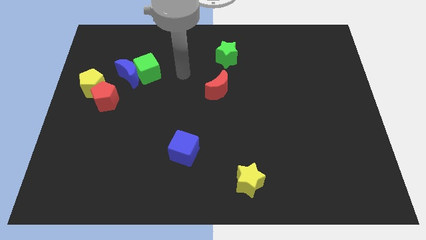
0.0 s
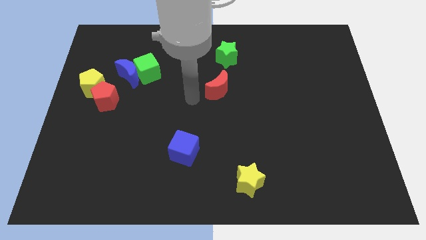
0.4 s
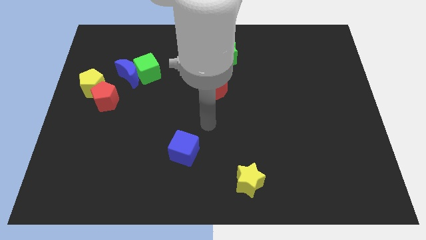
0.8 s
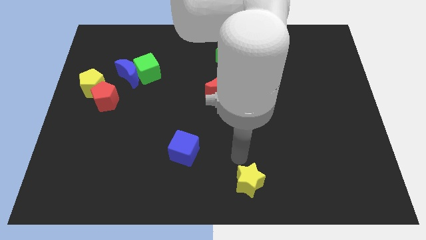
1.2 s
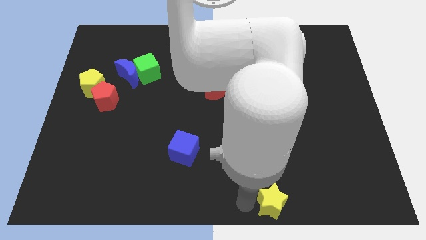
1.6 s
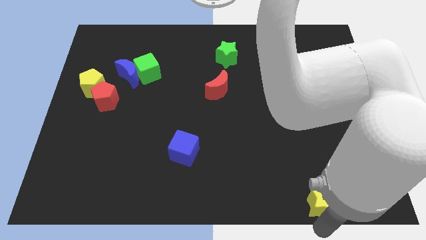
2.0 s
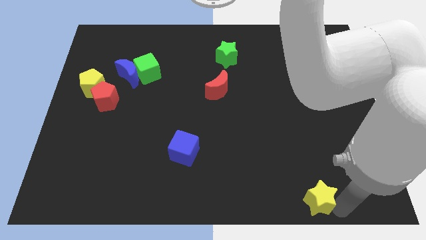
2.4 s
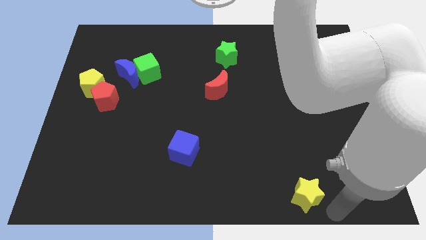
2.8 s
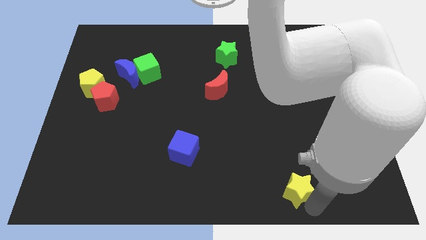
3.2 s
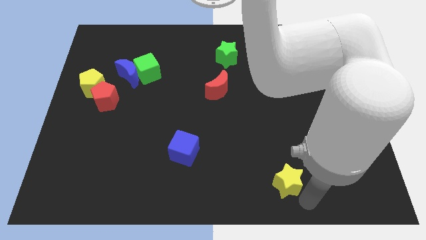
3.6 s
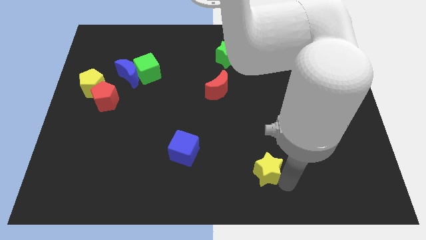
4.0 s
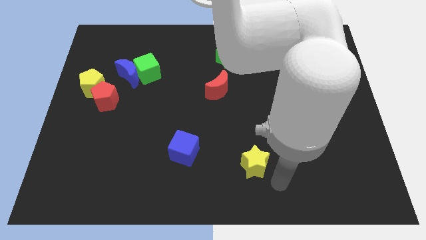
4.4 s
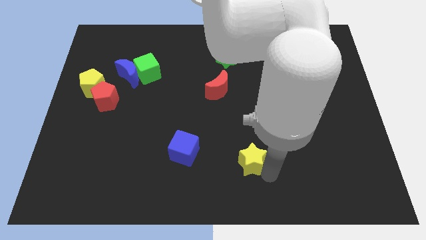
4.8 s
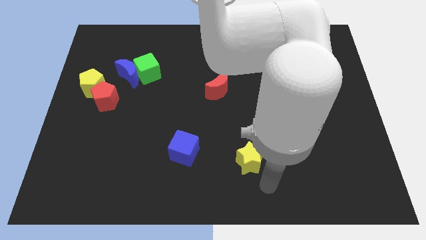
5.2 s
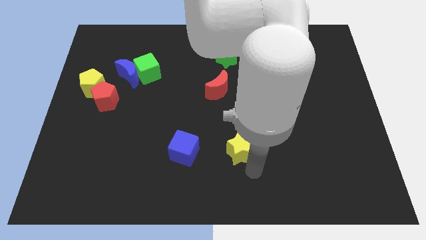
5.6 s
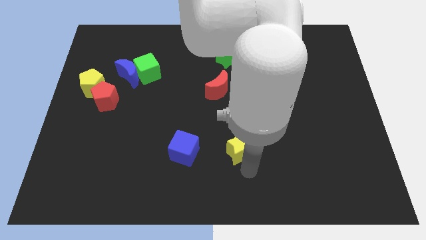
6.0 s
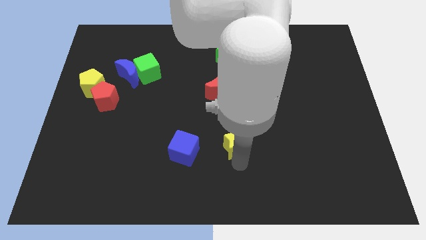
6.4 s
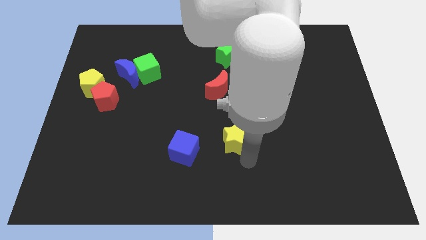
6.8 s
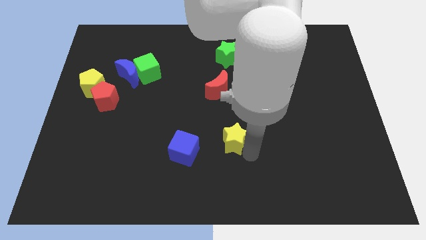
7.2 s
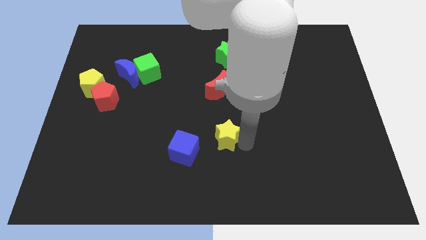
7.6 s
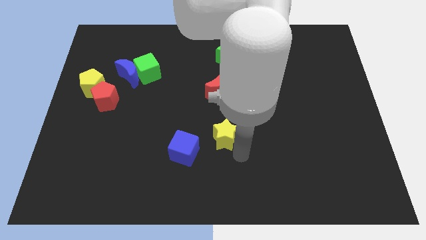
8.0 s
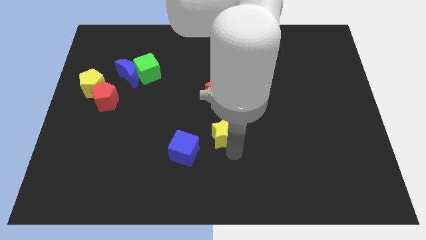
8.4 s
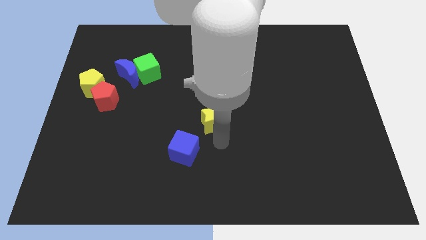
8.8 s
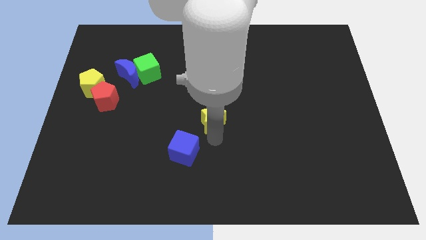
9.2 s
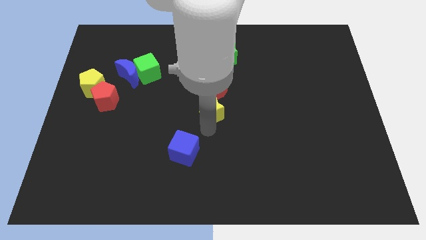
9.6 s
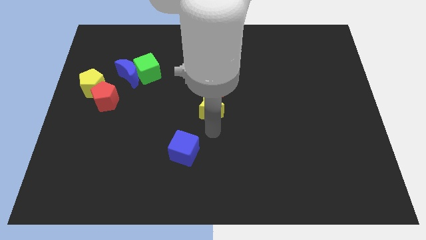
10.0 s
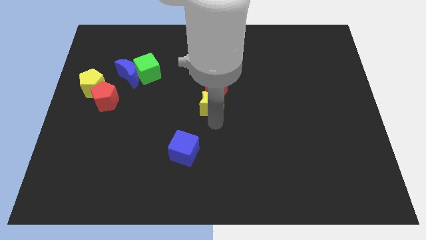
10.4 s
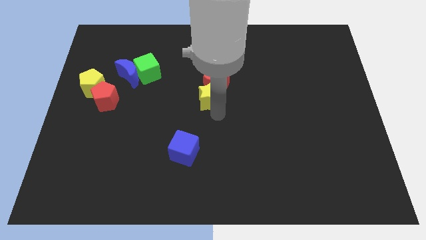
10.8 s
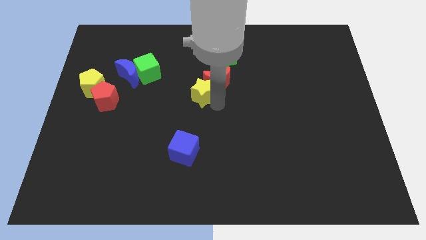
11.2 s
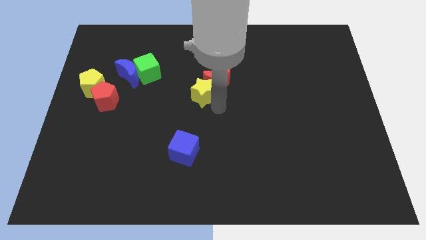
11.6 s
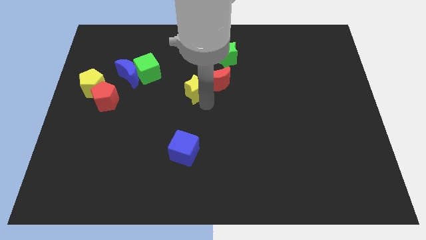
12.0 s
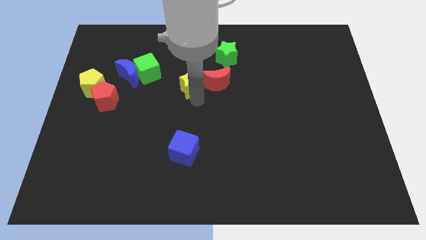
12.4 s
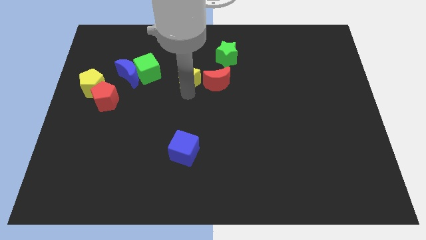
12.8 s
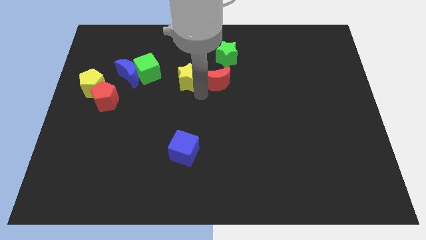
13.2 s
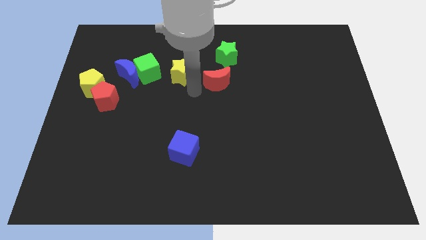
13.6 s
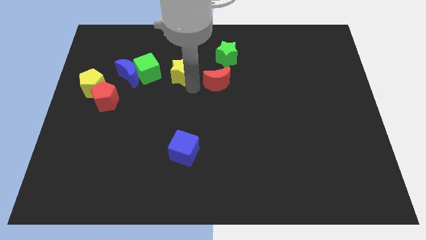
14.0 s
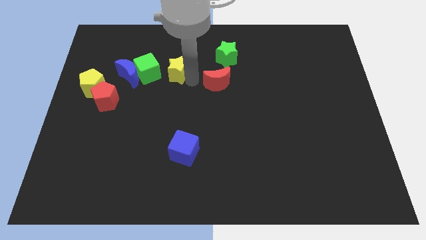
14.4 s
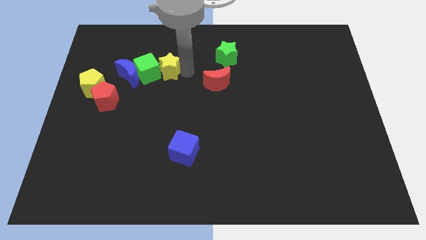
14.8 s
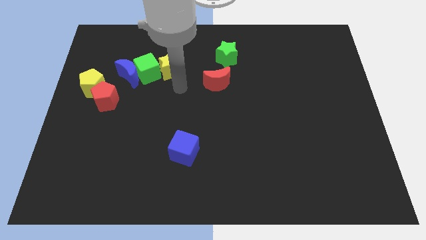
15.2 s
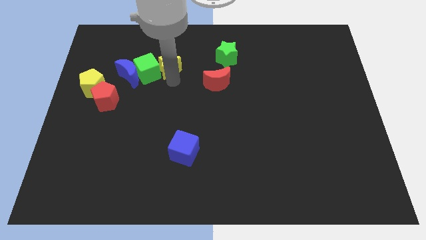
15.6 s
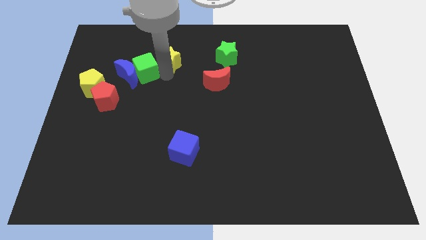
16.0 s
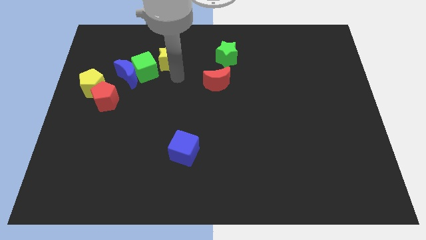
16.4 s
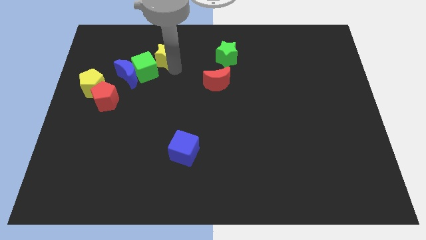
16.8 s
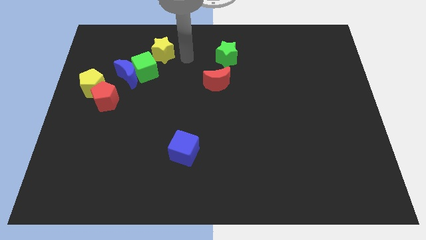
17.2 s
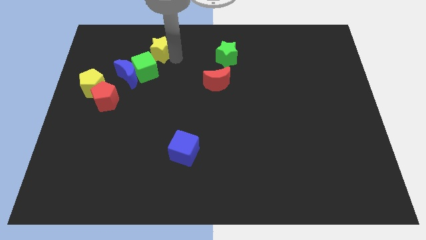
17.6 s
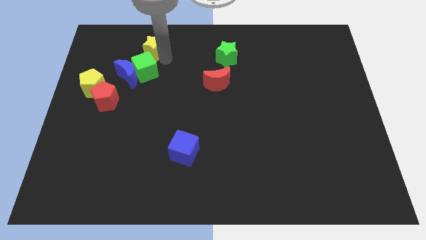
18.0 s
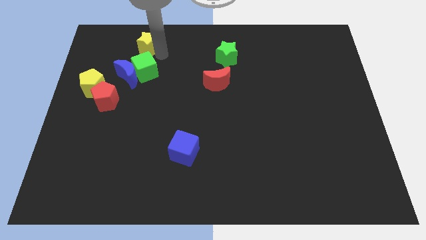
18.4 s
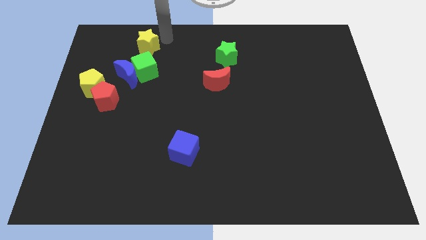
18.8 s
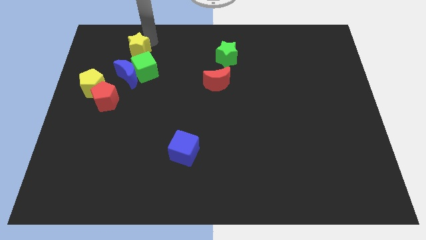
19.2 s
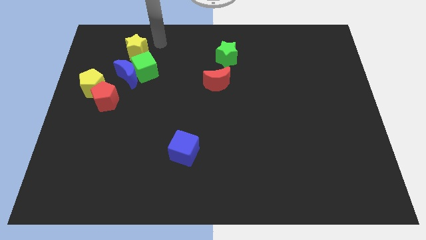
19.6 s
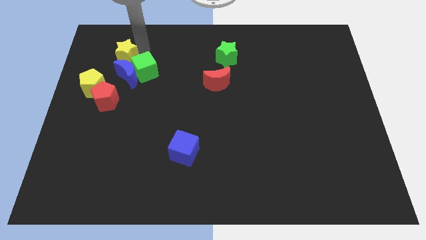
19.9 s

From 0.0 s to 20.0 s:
move the yellow star to the top left side of the blue moon

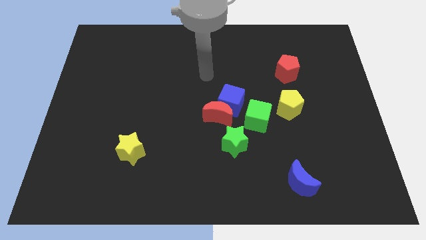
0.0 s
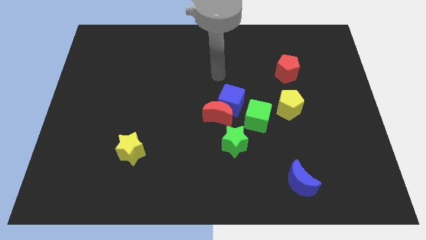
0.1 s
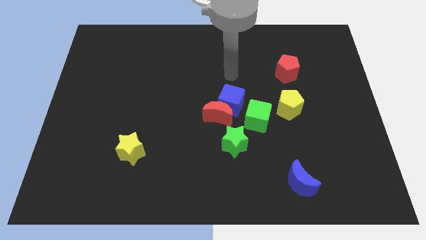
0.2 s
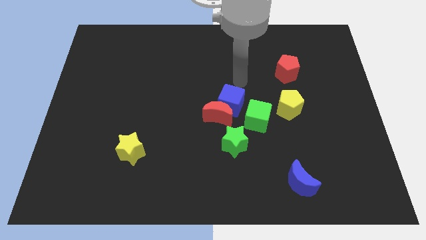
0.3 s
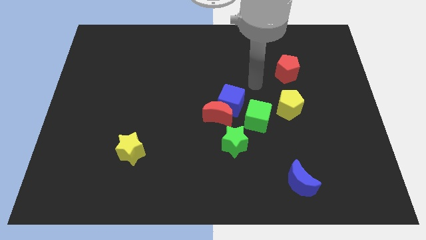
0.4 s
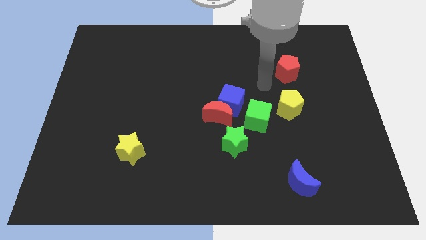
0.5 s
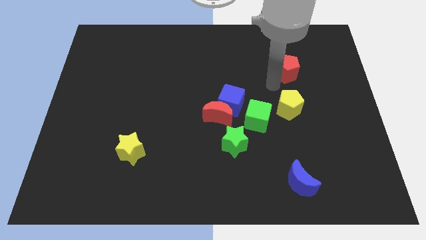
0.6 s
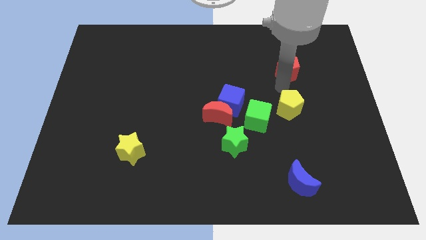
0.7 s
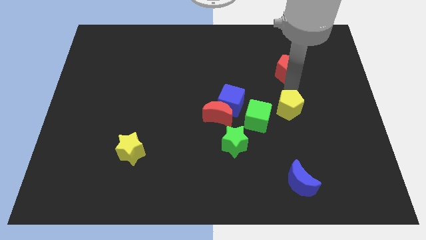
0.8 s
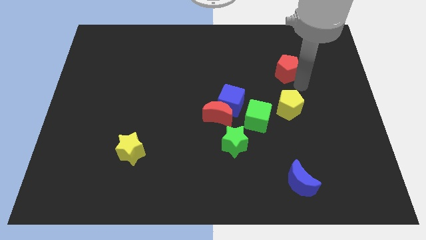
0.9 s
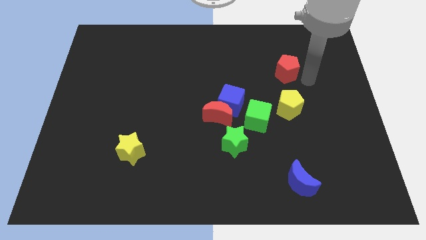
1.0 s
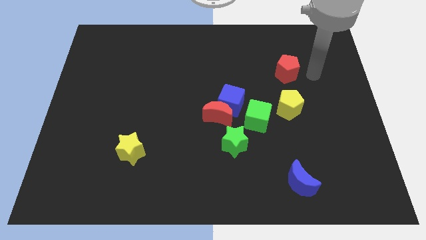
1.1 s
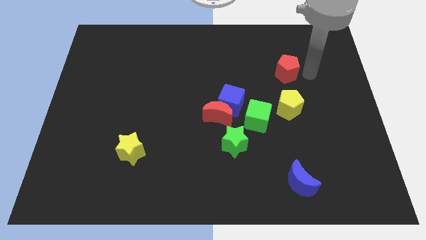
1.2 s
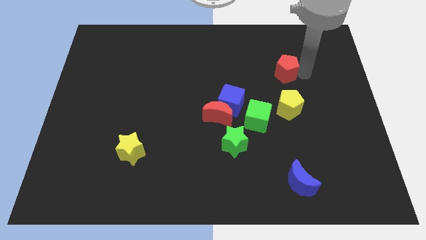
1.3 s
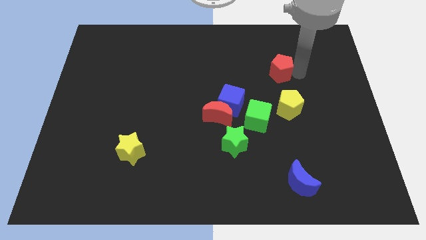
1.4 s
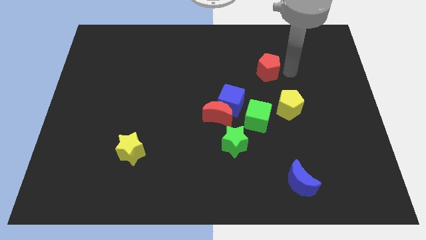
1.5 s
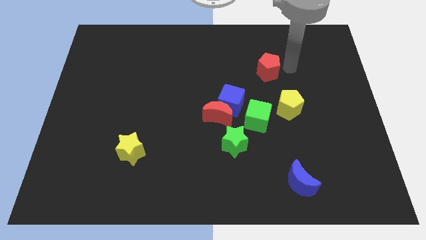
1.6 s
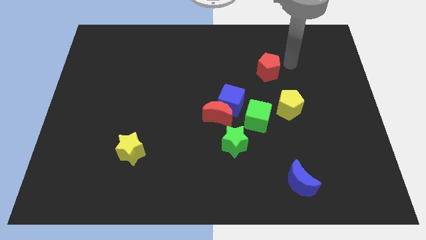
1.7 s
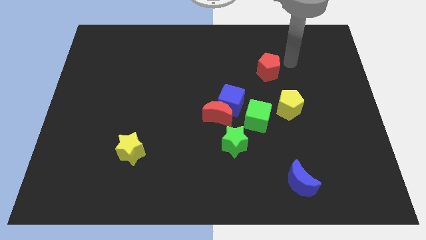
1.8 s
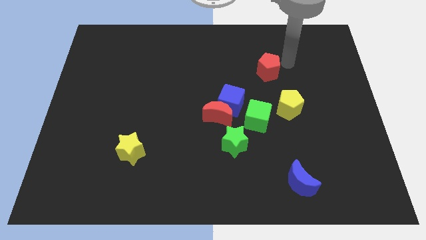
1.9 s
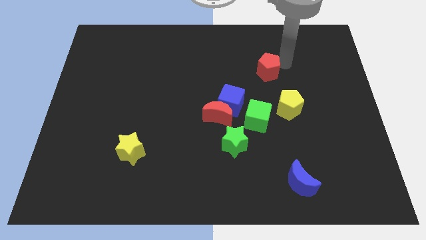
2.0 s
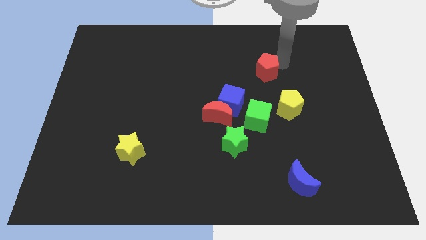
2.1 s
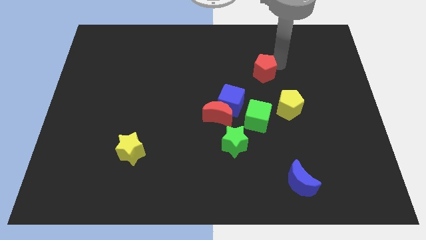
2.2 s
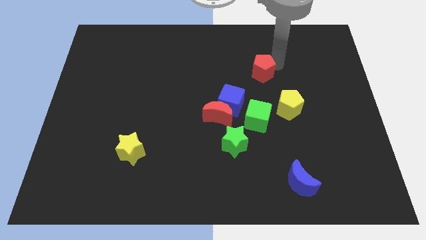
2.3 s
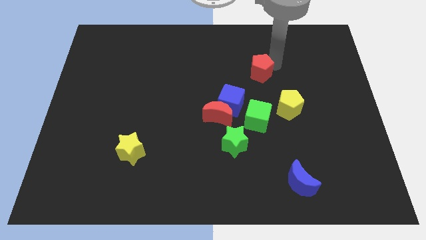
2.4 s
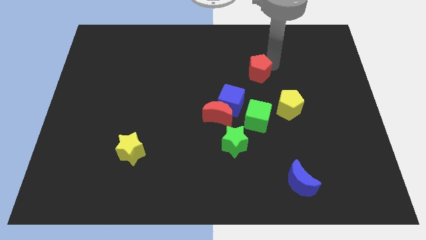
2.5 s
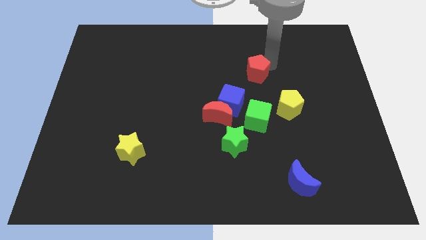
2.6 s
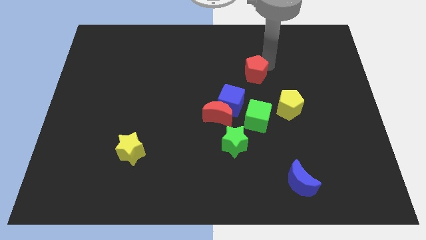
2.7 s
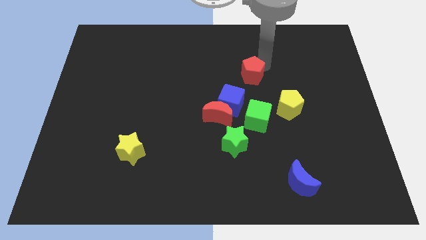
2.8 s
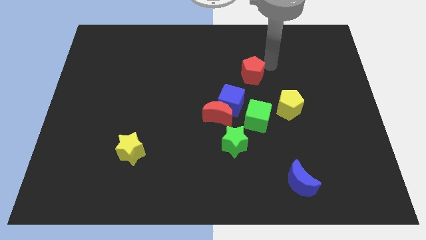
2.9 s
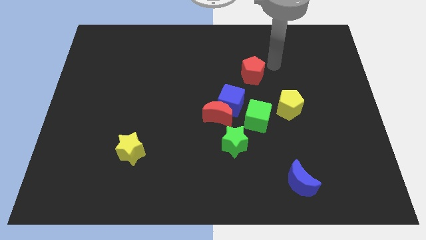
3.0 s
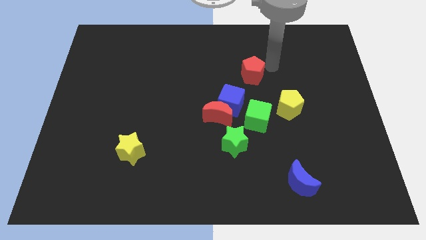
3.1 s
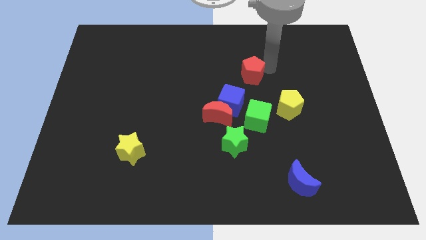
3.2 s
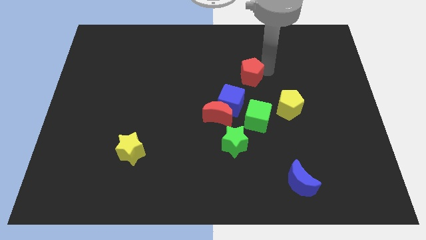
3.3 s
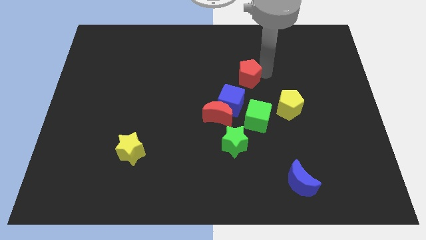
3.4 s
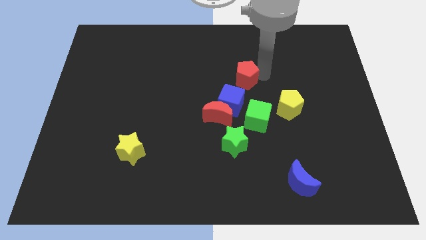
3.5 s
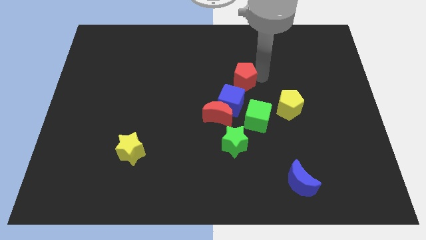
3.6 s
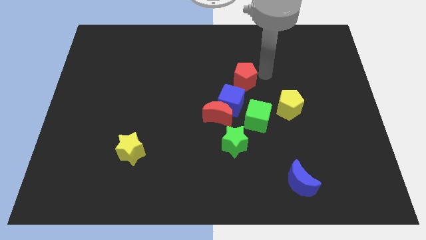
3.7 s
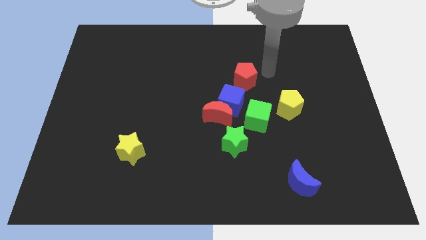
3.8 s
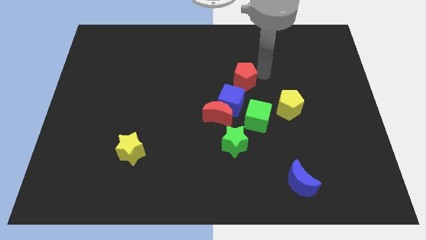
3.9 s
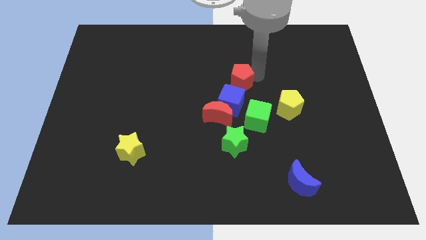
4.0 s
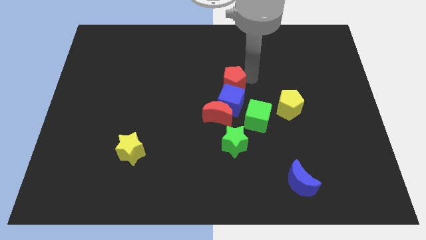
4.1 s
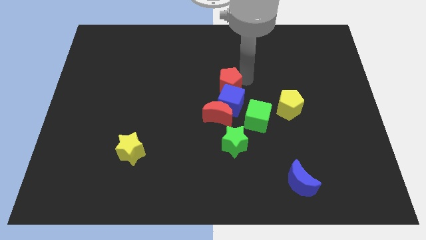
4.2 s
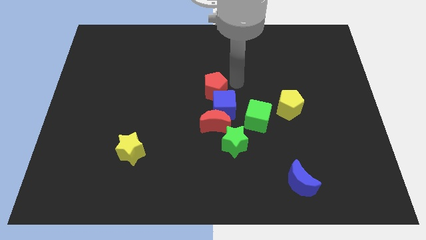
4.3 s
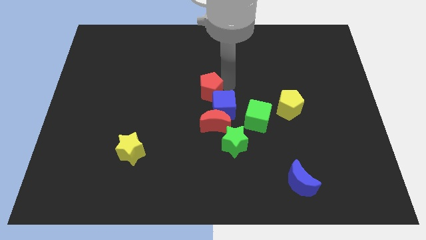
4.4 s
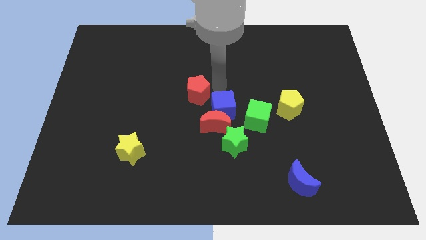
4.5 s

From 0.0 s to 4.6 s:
put the red pentagon left of the blue cube
